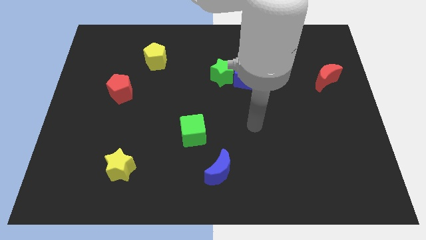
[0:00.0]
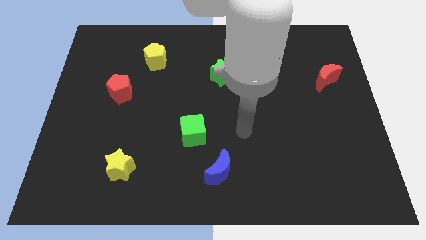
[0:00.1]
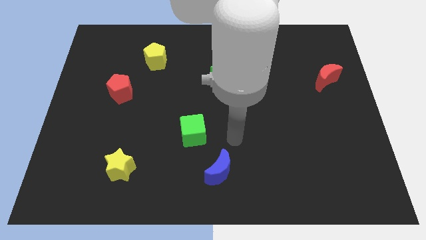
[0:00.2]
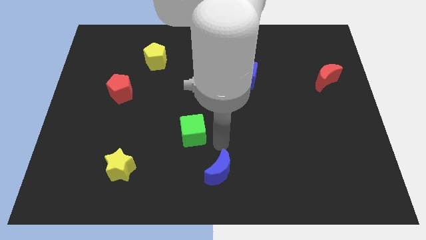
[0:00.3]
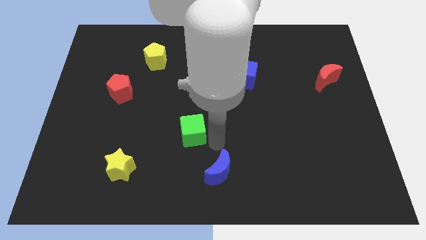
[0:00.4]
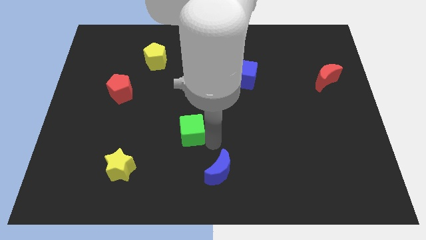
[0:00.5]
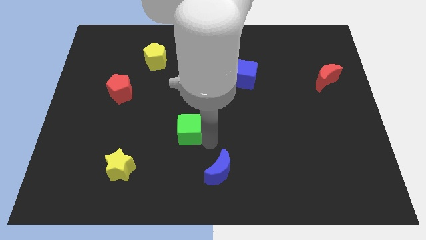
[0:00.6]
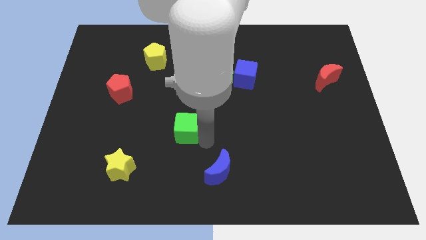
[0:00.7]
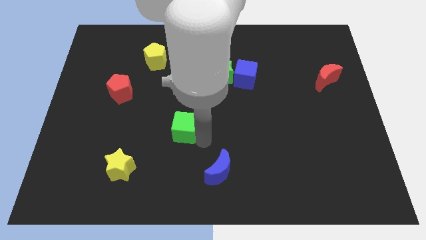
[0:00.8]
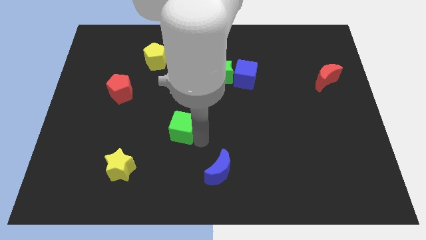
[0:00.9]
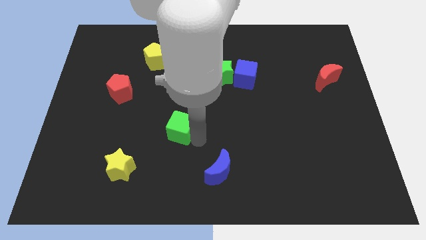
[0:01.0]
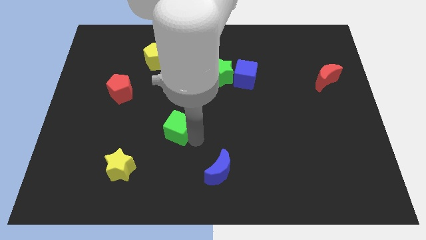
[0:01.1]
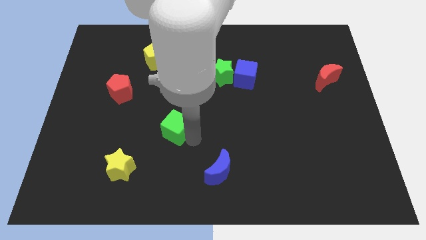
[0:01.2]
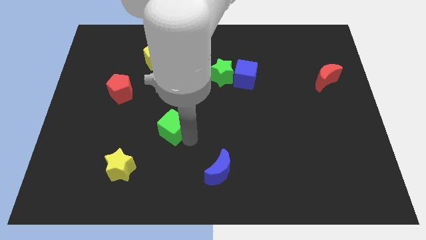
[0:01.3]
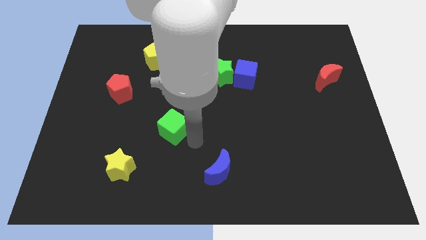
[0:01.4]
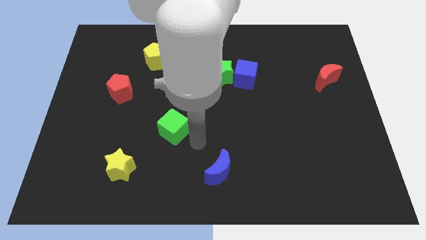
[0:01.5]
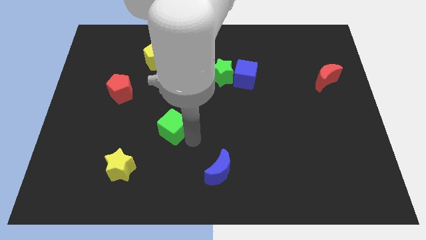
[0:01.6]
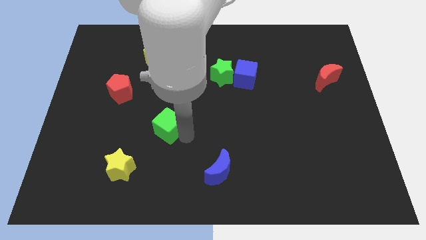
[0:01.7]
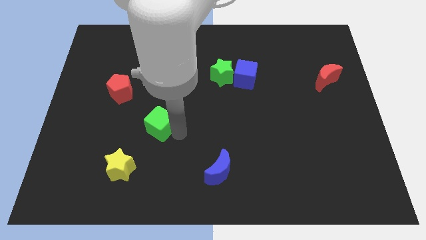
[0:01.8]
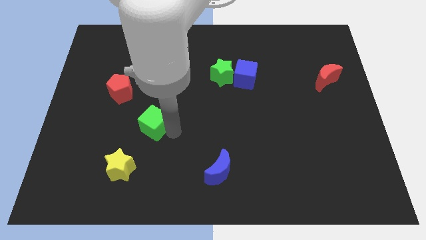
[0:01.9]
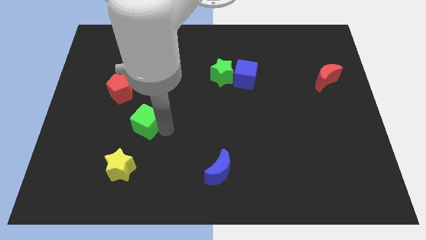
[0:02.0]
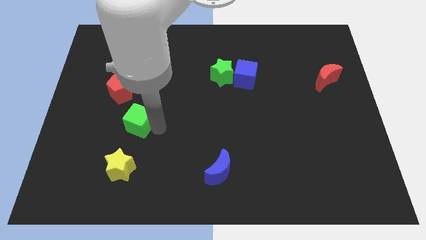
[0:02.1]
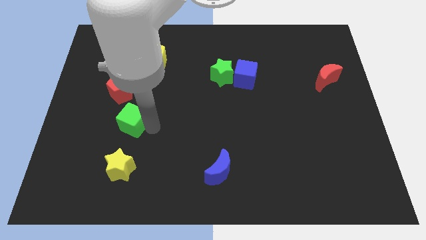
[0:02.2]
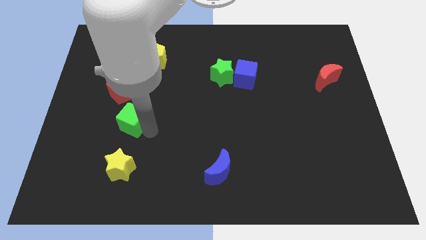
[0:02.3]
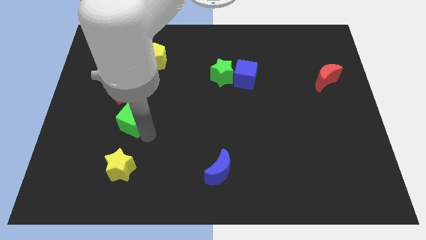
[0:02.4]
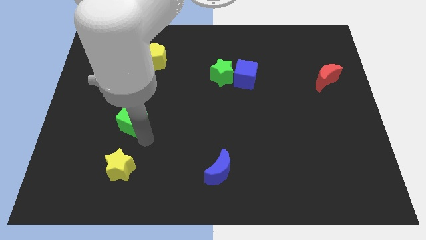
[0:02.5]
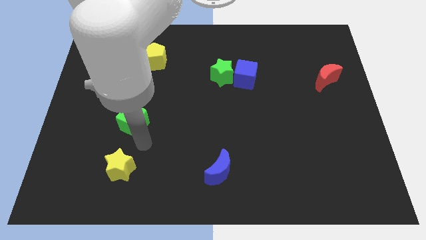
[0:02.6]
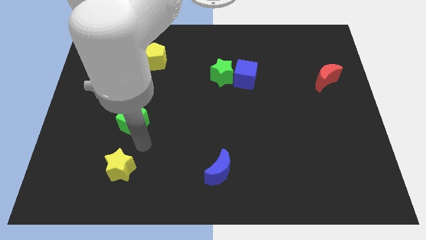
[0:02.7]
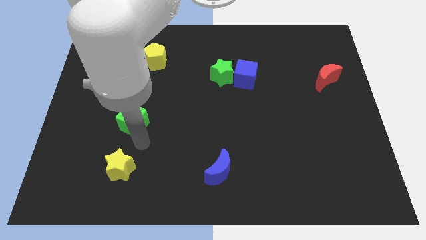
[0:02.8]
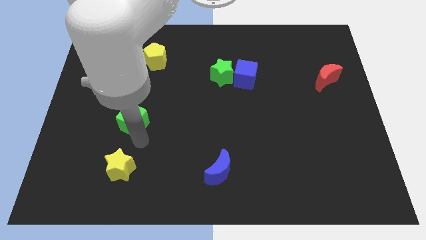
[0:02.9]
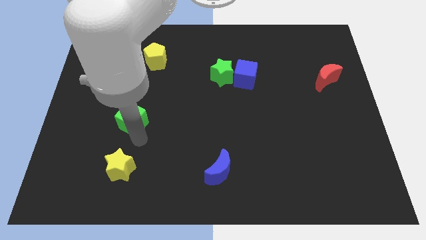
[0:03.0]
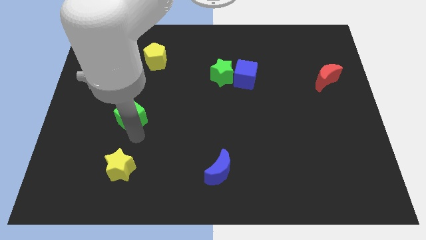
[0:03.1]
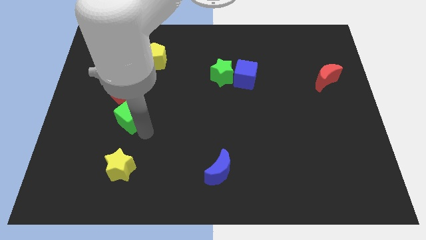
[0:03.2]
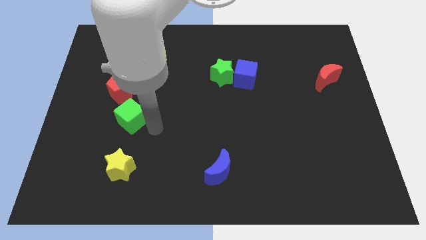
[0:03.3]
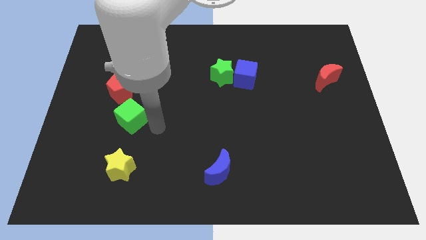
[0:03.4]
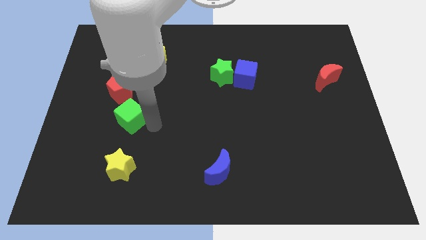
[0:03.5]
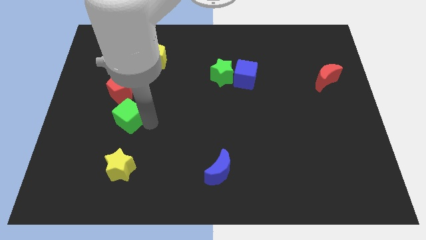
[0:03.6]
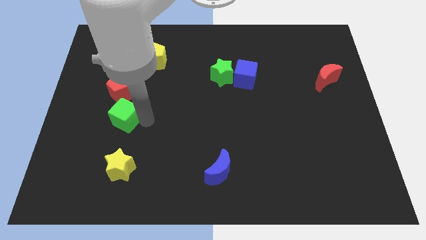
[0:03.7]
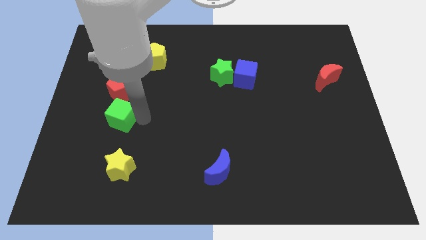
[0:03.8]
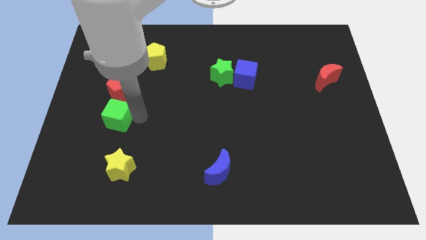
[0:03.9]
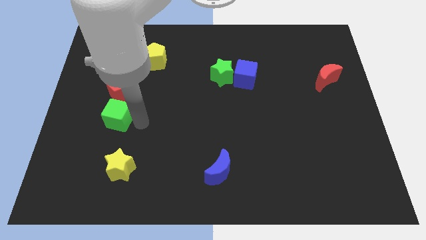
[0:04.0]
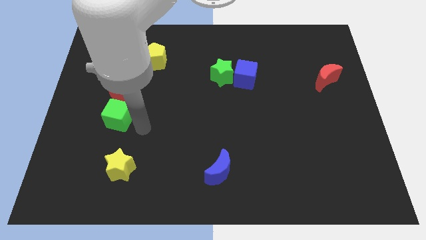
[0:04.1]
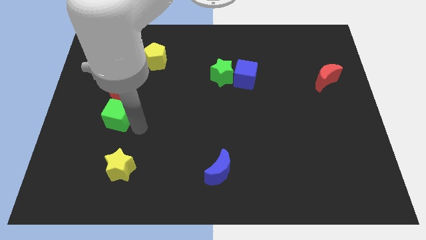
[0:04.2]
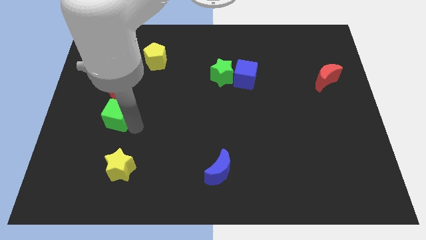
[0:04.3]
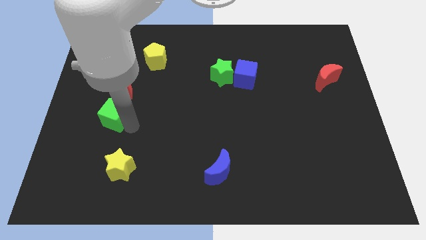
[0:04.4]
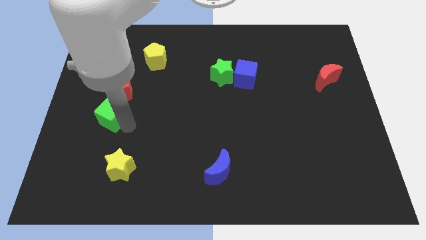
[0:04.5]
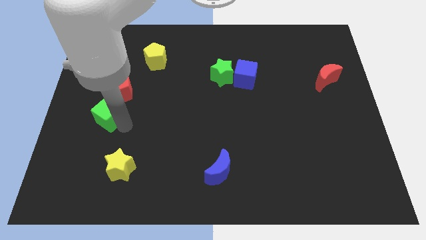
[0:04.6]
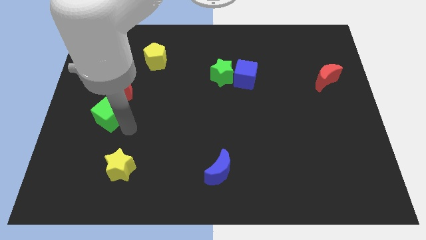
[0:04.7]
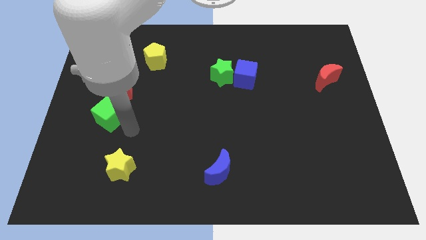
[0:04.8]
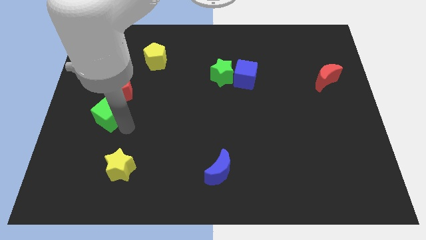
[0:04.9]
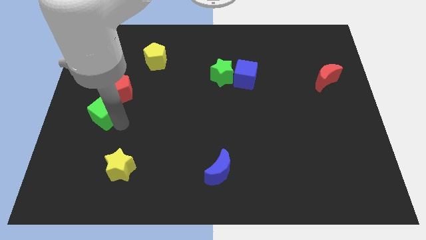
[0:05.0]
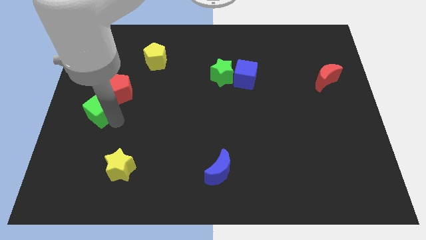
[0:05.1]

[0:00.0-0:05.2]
put the green cube to the left side

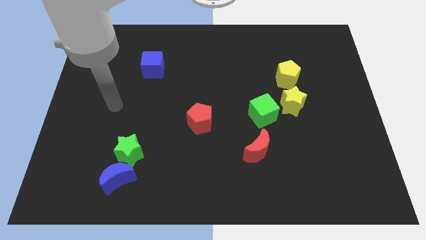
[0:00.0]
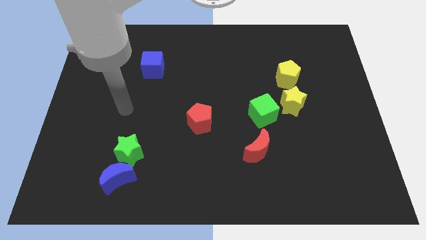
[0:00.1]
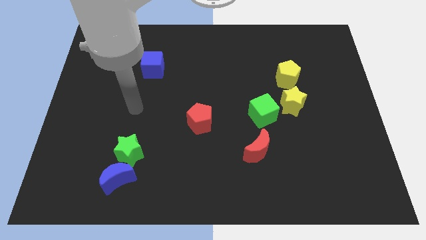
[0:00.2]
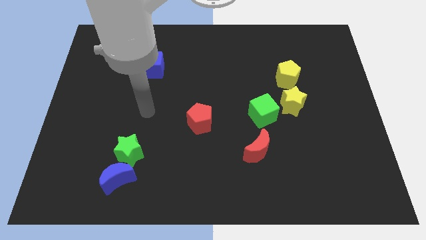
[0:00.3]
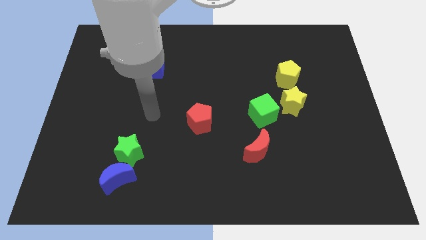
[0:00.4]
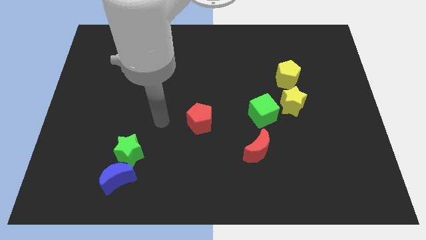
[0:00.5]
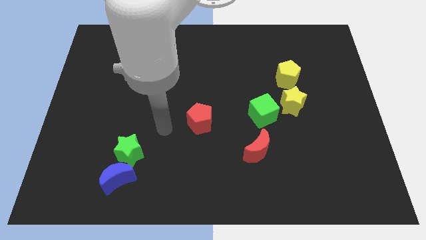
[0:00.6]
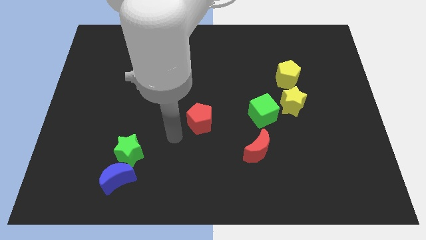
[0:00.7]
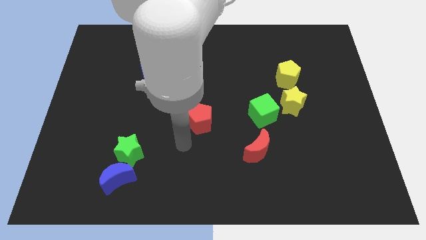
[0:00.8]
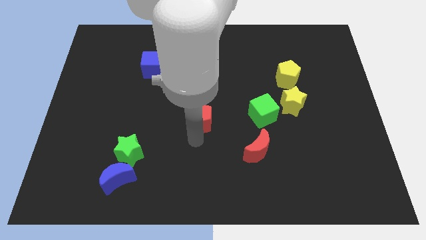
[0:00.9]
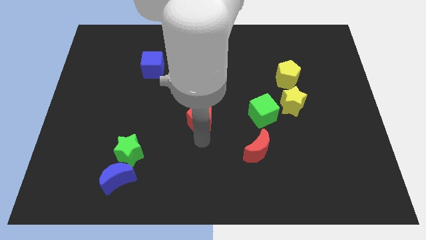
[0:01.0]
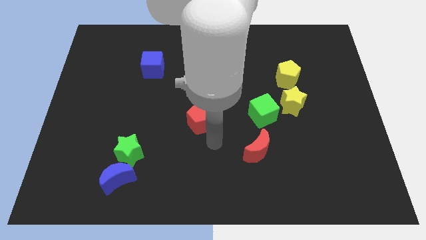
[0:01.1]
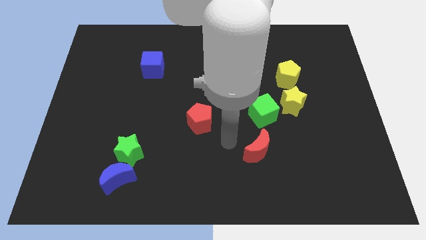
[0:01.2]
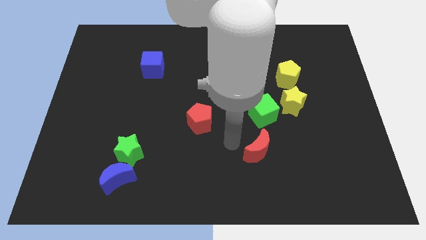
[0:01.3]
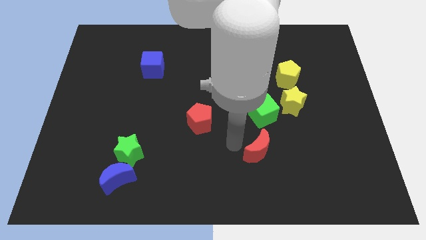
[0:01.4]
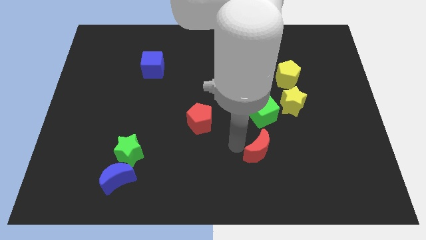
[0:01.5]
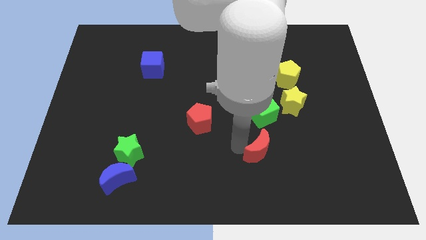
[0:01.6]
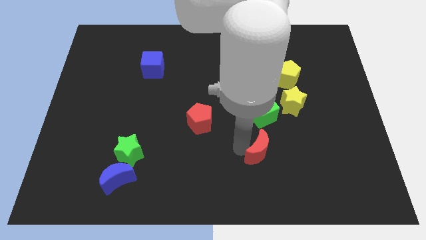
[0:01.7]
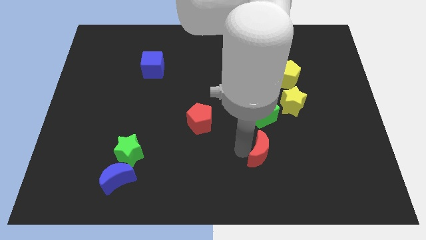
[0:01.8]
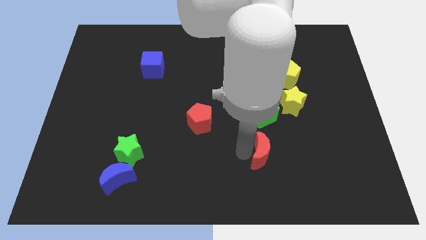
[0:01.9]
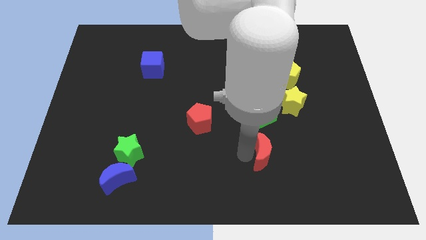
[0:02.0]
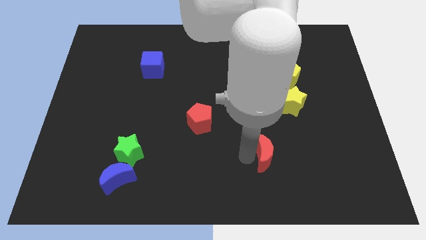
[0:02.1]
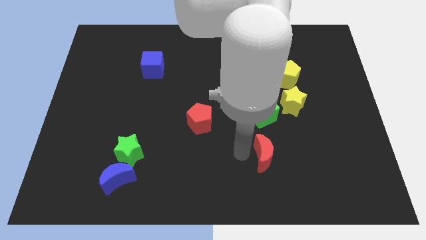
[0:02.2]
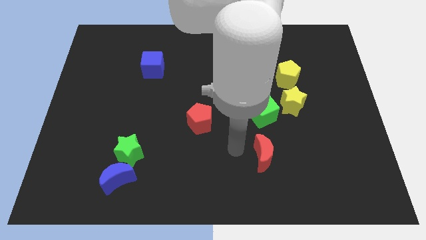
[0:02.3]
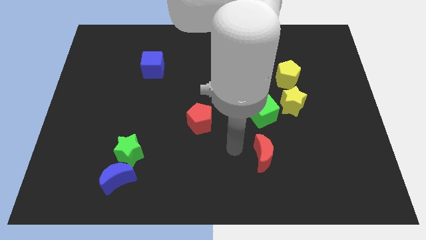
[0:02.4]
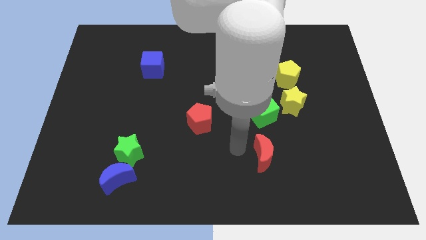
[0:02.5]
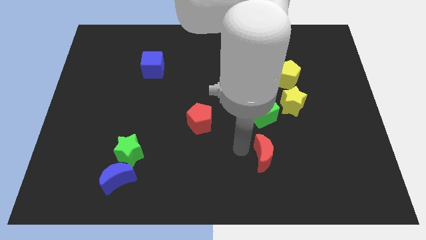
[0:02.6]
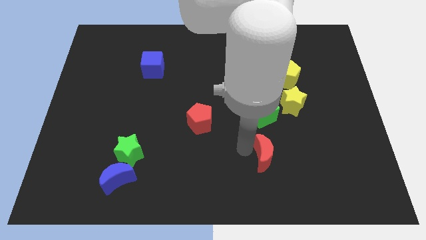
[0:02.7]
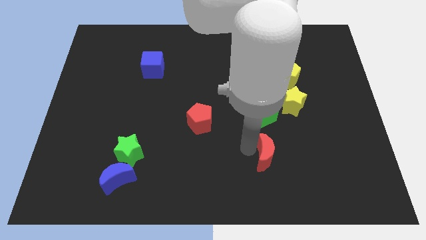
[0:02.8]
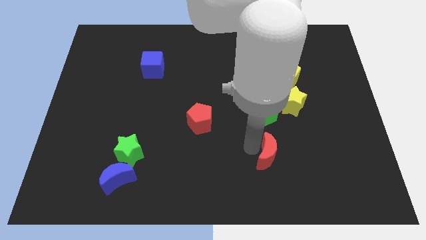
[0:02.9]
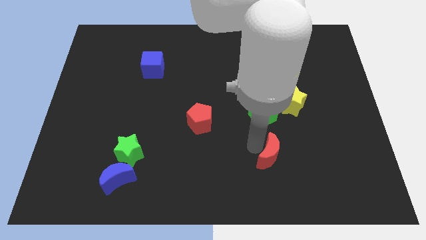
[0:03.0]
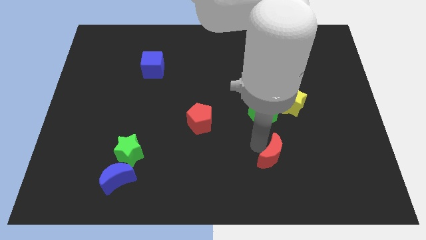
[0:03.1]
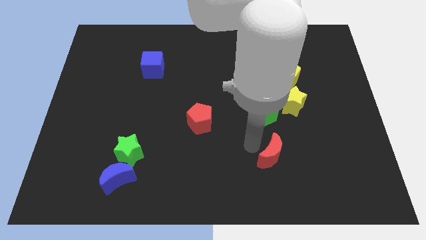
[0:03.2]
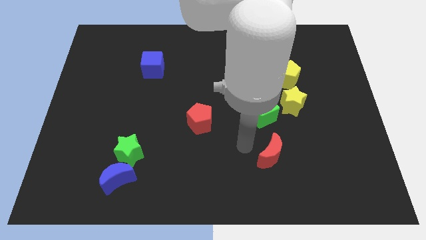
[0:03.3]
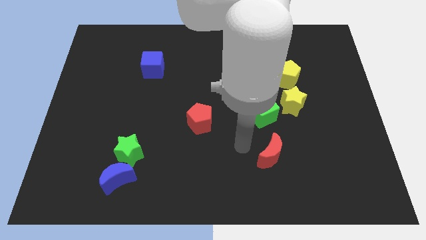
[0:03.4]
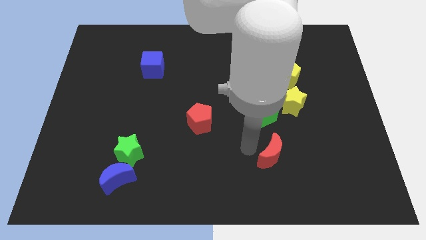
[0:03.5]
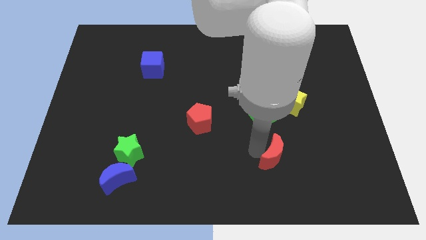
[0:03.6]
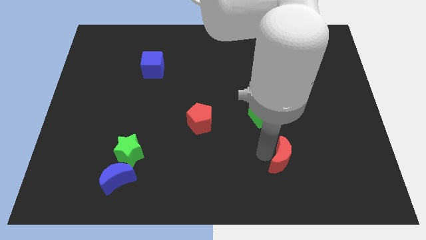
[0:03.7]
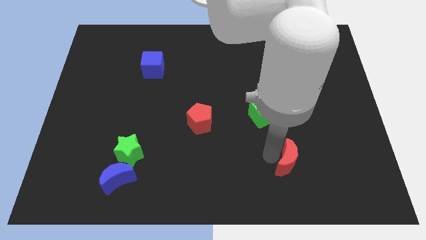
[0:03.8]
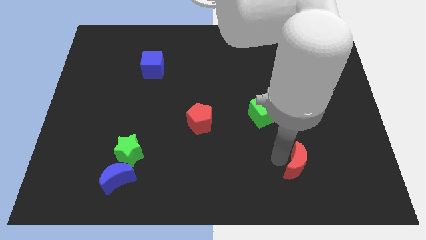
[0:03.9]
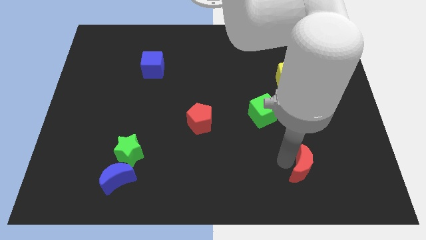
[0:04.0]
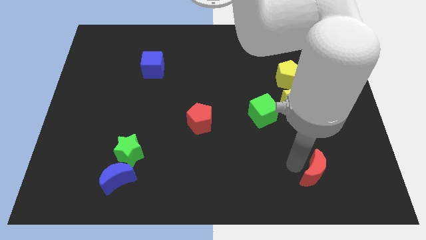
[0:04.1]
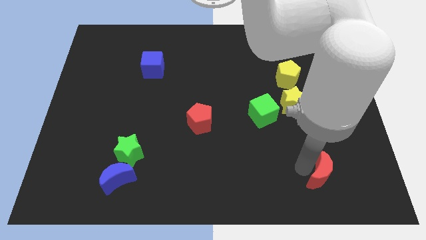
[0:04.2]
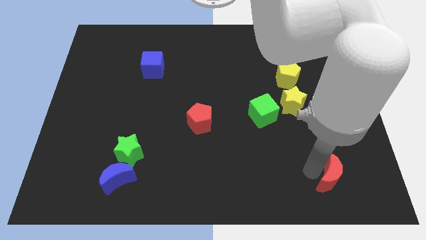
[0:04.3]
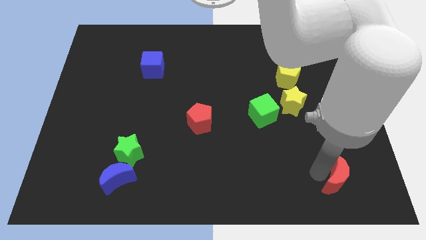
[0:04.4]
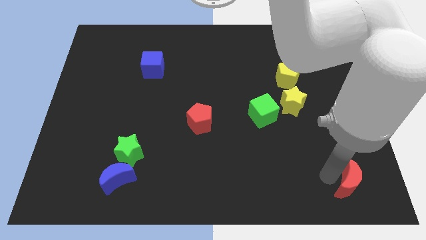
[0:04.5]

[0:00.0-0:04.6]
move the red moon to the bottom right corner
